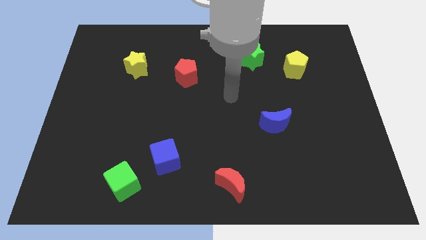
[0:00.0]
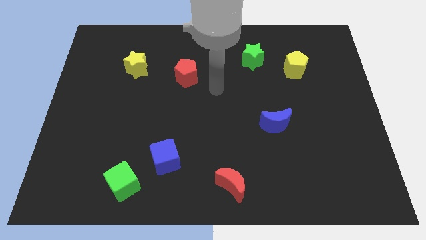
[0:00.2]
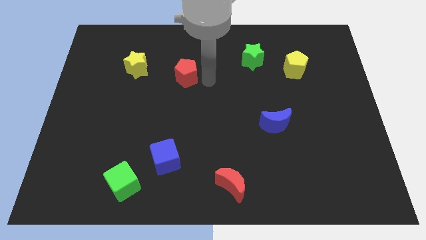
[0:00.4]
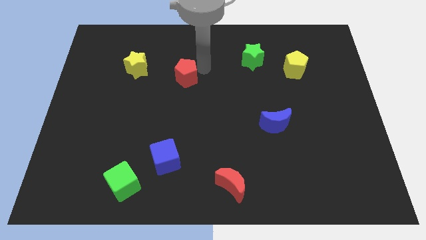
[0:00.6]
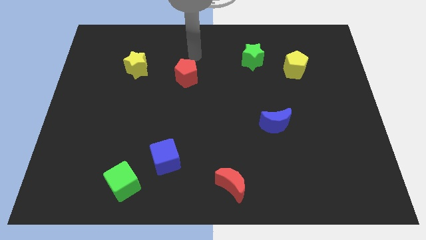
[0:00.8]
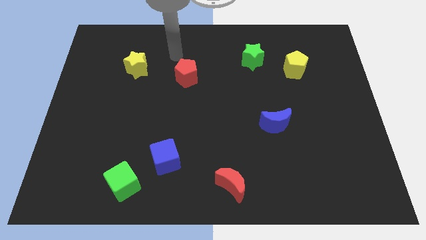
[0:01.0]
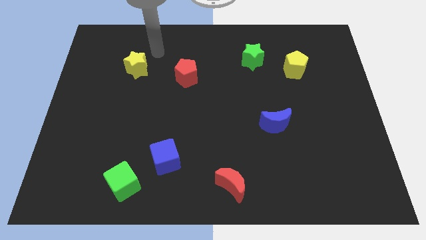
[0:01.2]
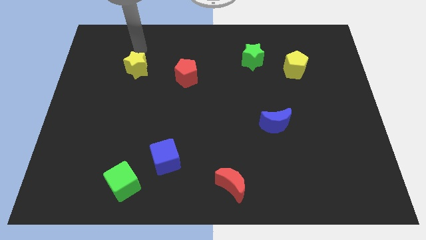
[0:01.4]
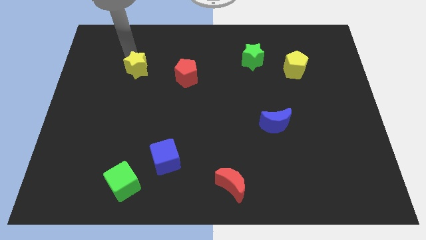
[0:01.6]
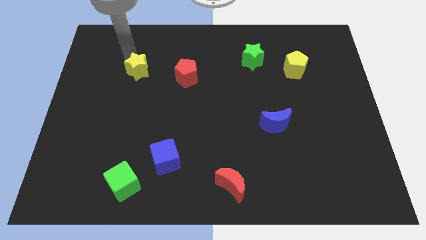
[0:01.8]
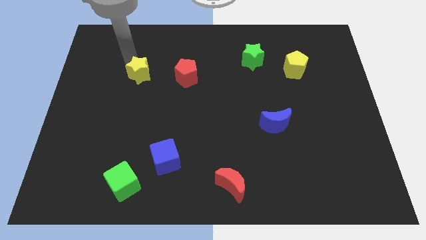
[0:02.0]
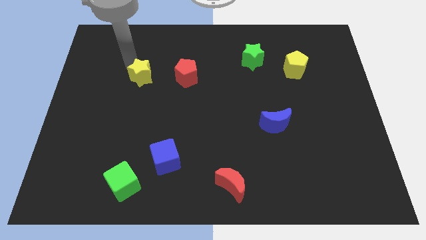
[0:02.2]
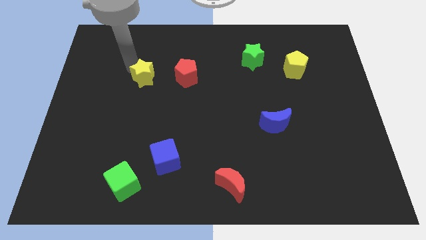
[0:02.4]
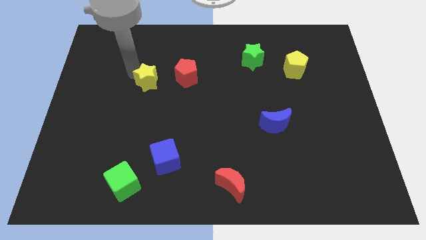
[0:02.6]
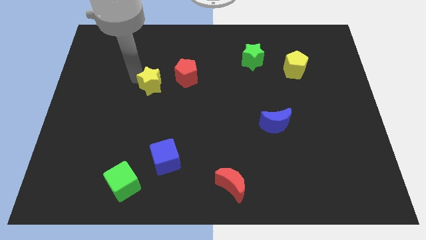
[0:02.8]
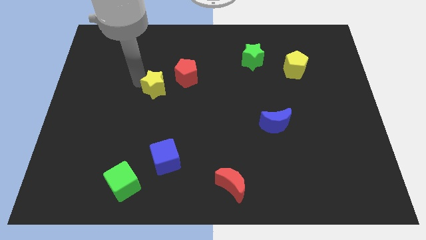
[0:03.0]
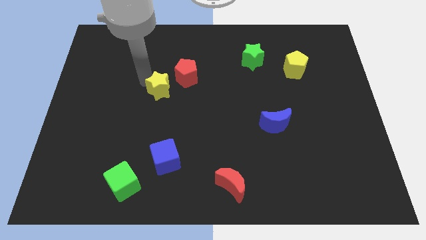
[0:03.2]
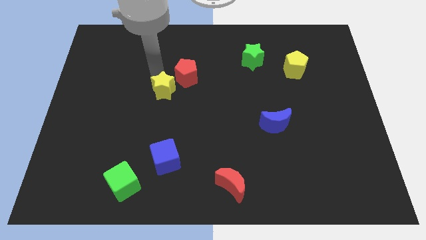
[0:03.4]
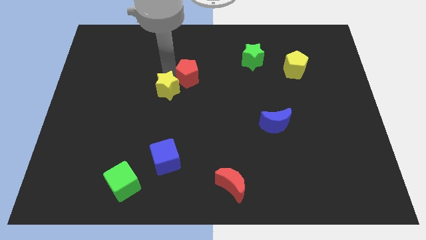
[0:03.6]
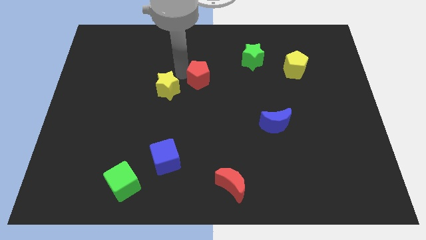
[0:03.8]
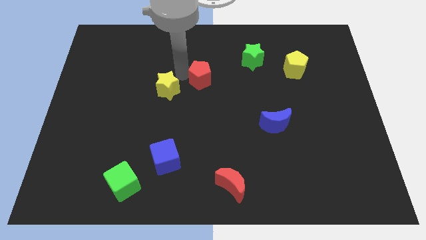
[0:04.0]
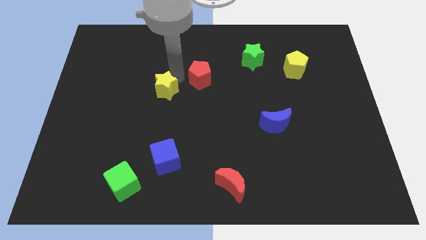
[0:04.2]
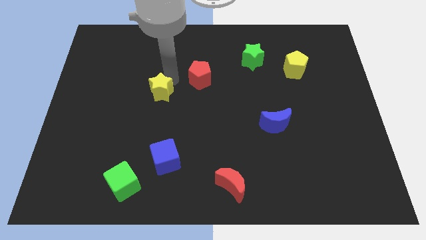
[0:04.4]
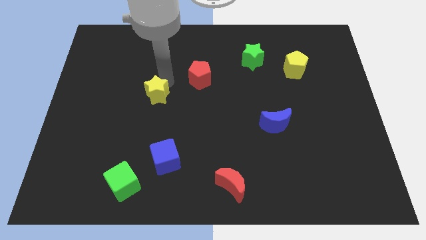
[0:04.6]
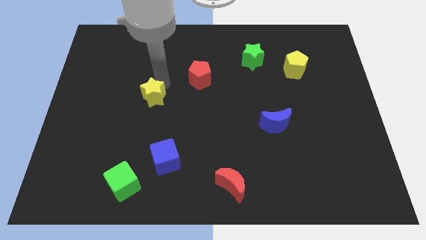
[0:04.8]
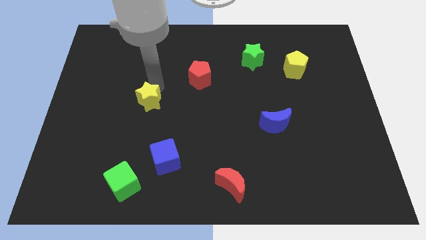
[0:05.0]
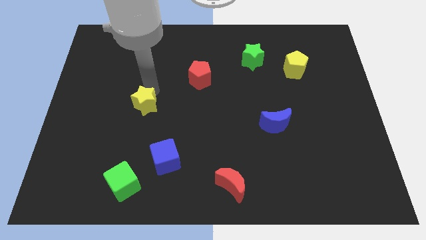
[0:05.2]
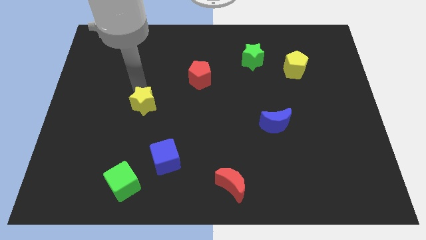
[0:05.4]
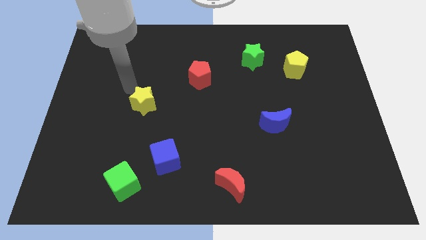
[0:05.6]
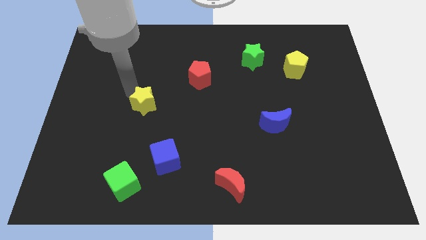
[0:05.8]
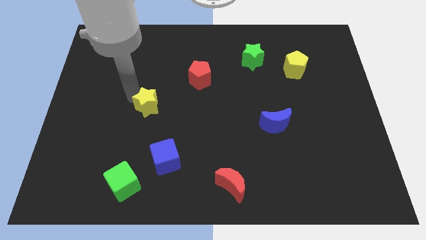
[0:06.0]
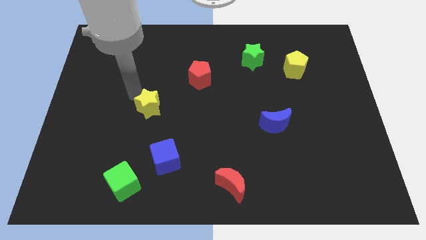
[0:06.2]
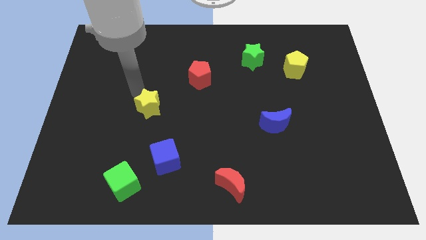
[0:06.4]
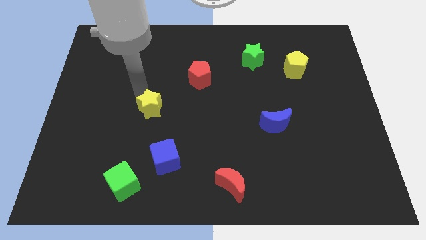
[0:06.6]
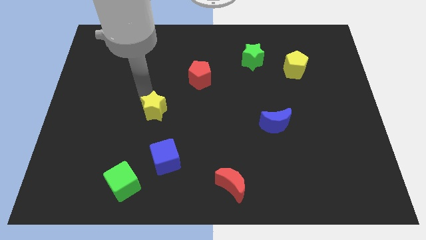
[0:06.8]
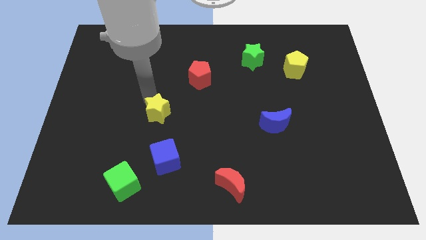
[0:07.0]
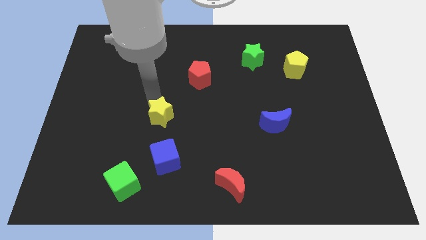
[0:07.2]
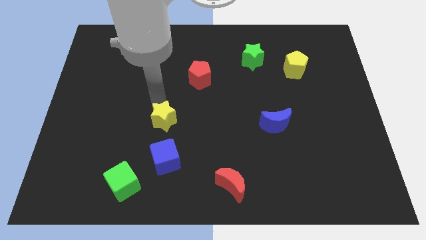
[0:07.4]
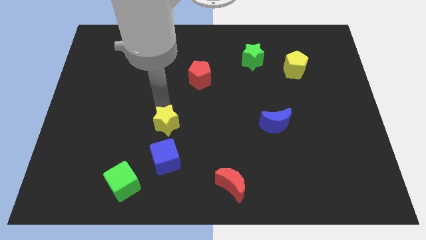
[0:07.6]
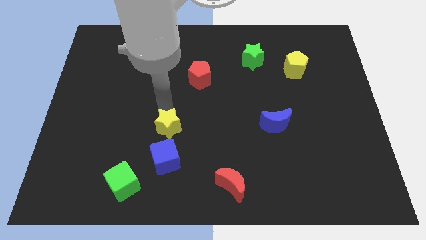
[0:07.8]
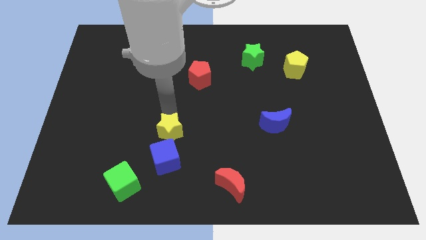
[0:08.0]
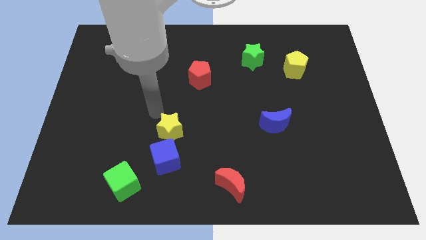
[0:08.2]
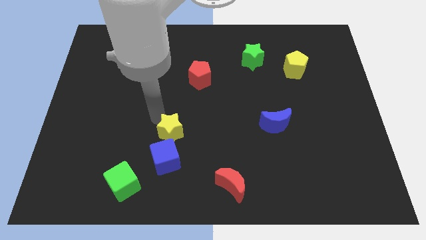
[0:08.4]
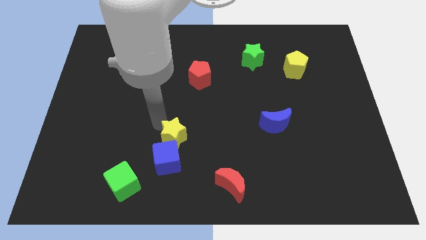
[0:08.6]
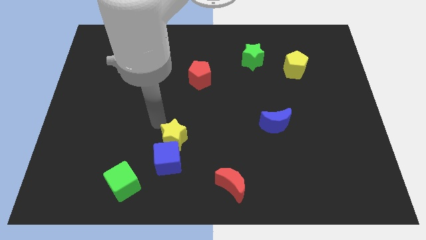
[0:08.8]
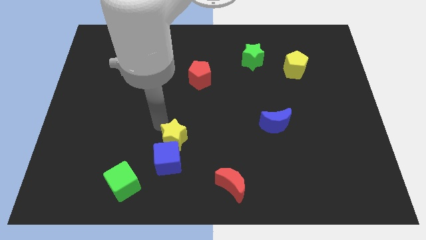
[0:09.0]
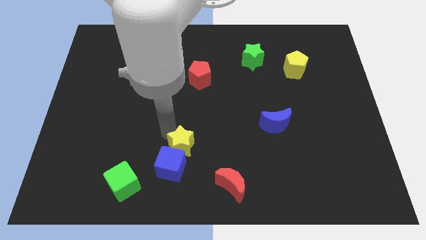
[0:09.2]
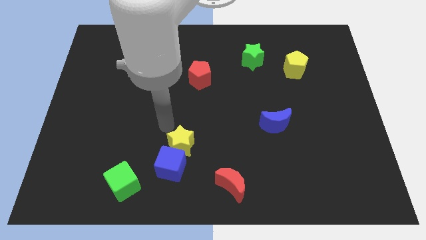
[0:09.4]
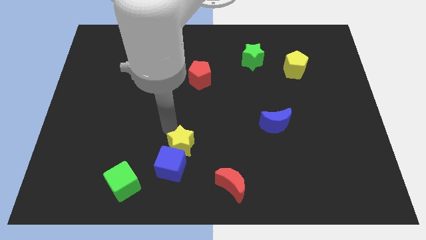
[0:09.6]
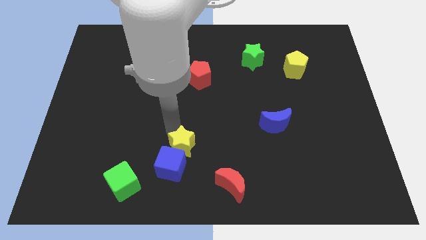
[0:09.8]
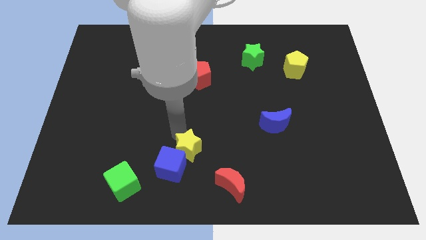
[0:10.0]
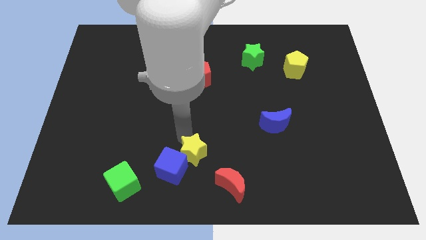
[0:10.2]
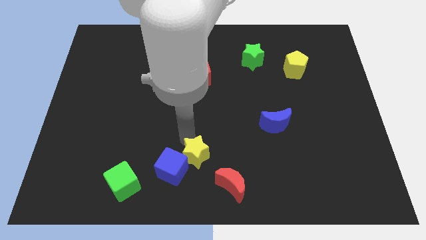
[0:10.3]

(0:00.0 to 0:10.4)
push the yellow star to the bottom side

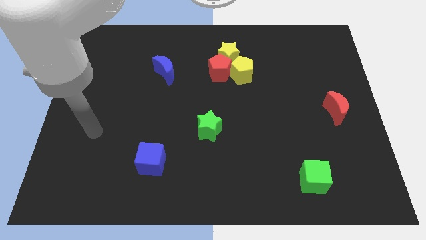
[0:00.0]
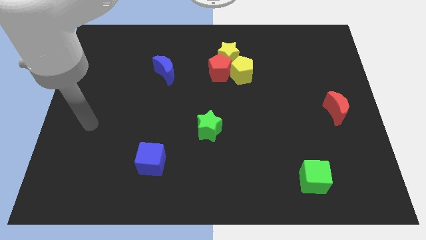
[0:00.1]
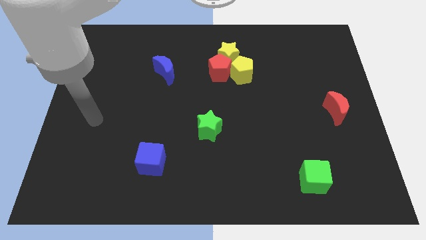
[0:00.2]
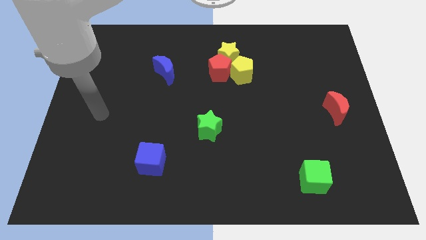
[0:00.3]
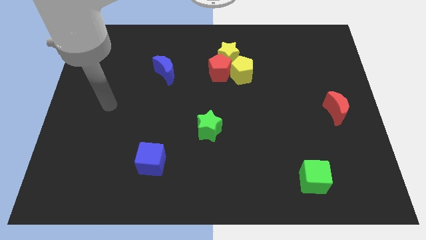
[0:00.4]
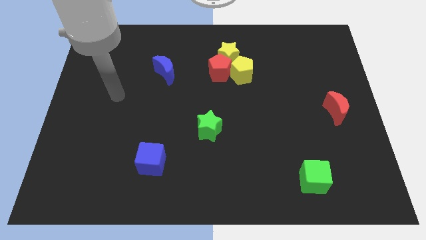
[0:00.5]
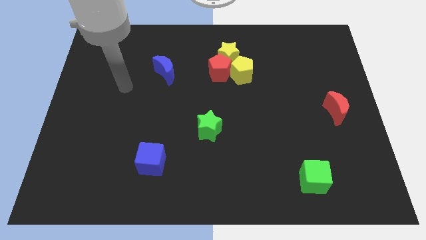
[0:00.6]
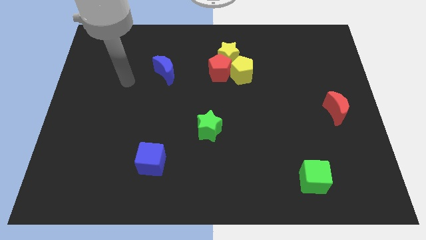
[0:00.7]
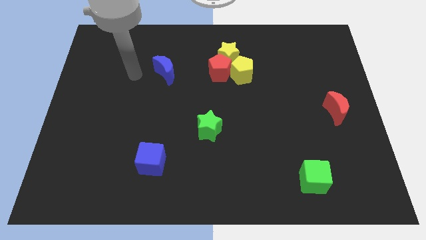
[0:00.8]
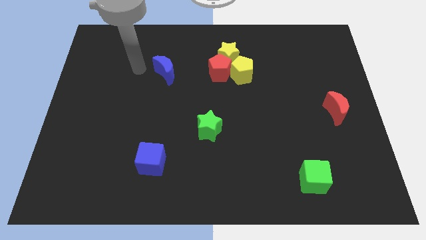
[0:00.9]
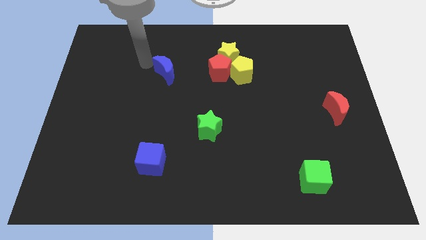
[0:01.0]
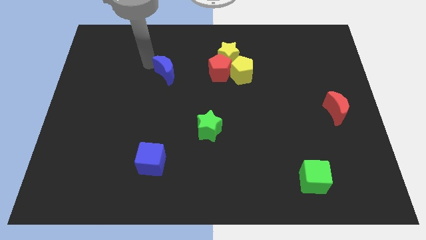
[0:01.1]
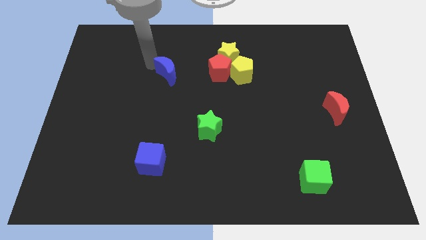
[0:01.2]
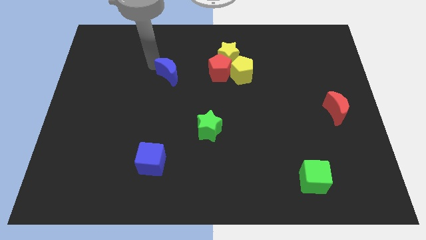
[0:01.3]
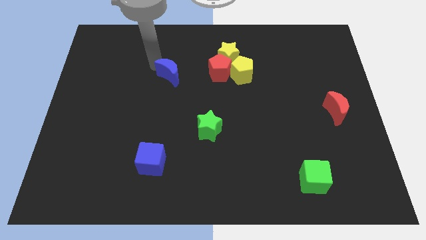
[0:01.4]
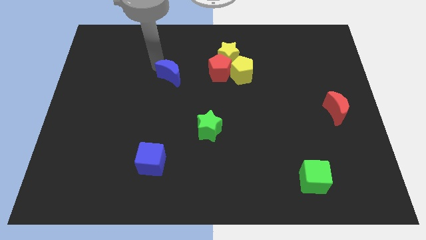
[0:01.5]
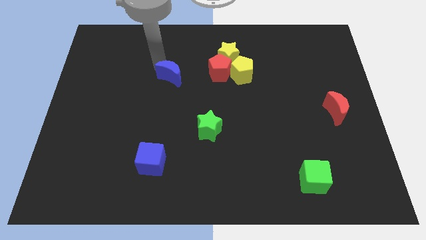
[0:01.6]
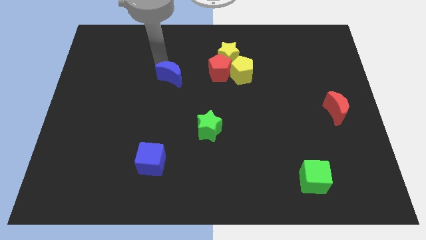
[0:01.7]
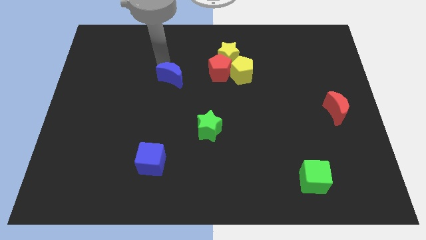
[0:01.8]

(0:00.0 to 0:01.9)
move the blue moon to the middle
